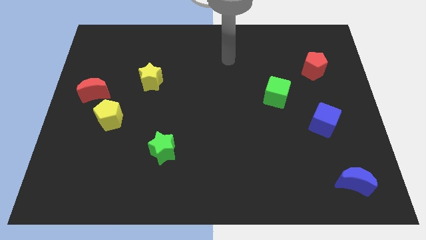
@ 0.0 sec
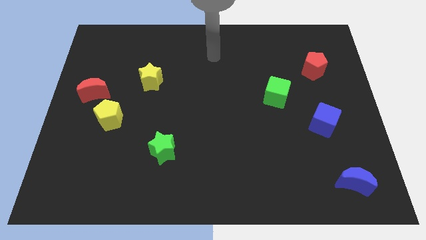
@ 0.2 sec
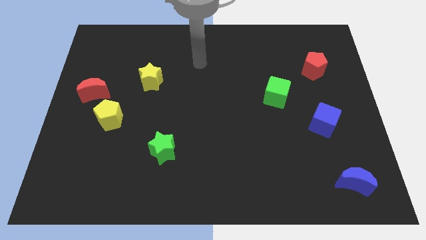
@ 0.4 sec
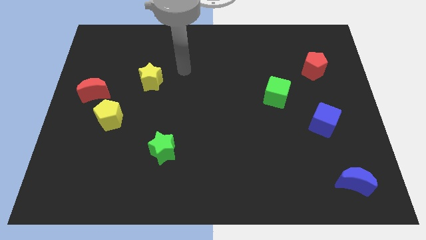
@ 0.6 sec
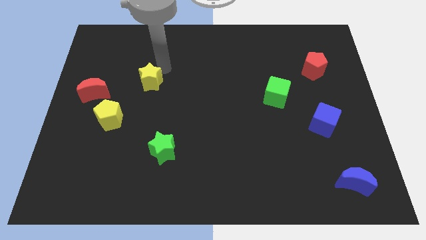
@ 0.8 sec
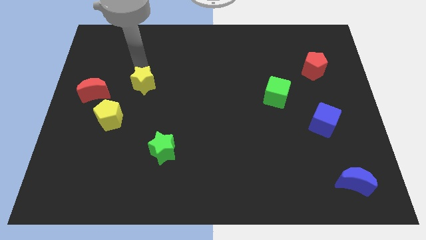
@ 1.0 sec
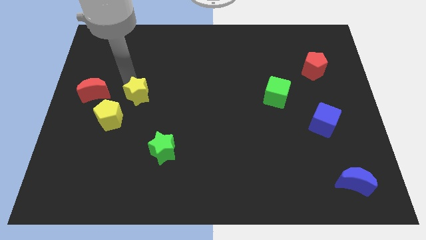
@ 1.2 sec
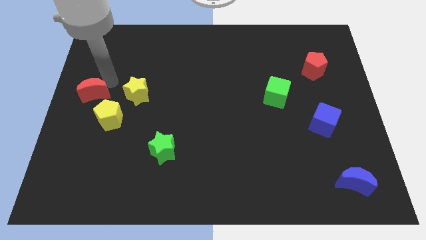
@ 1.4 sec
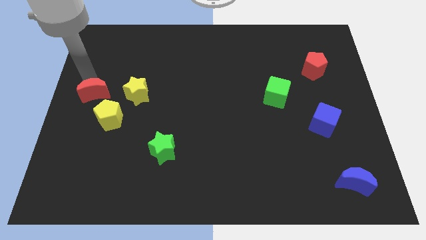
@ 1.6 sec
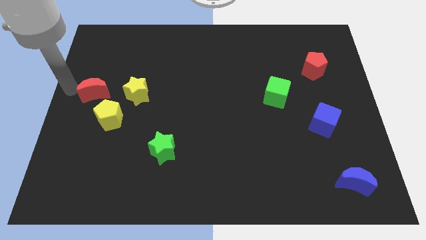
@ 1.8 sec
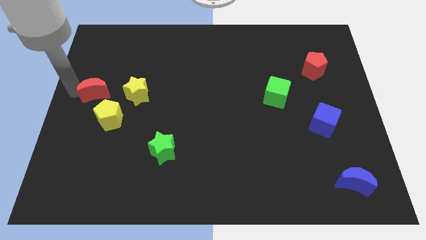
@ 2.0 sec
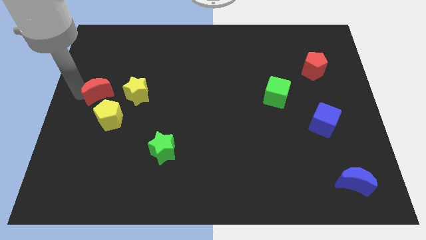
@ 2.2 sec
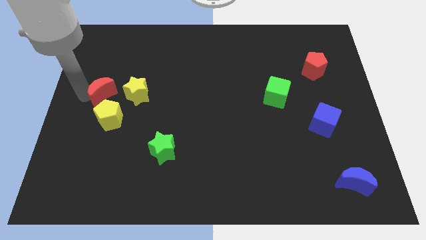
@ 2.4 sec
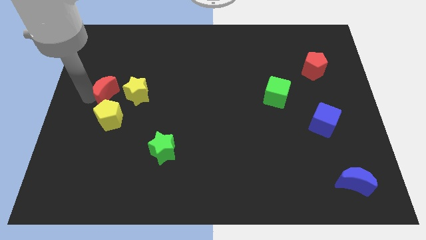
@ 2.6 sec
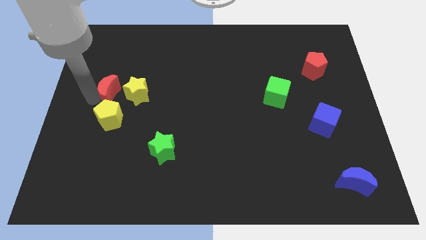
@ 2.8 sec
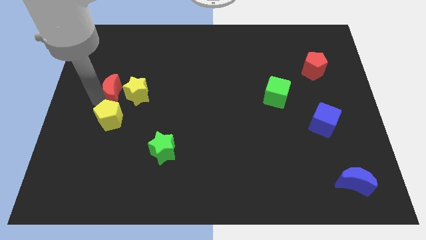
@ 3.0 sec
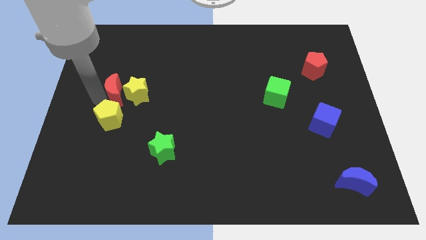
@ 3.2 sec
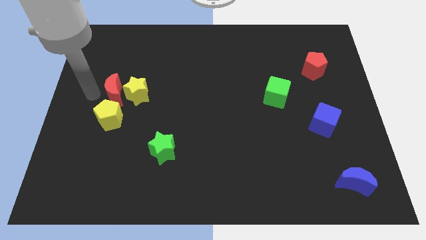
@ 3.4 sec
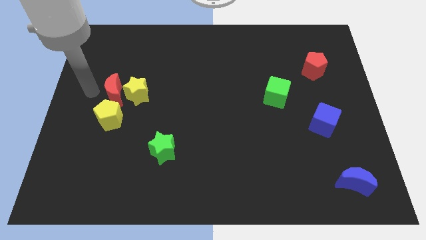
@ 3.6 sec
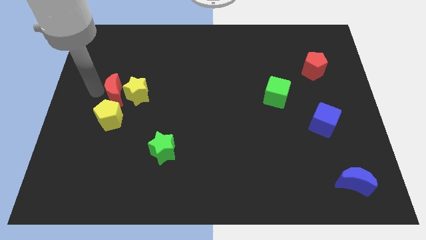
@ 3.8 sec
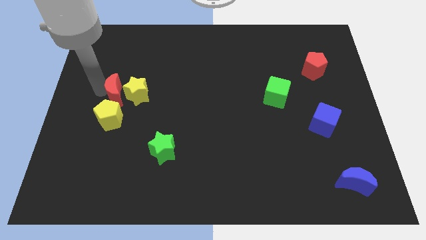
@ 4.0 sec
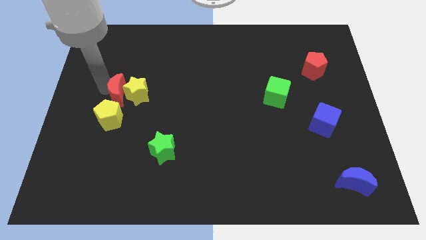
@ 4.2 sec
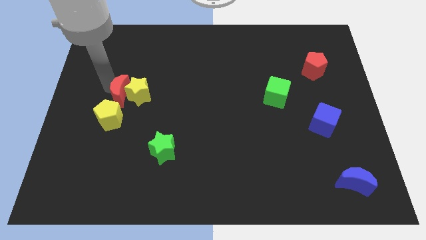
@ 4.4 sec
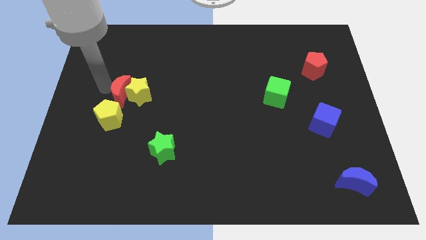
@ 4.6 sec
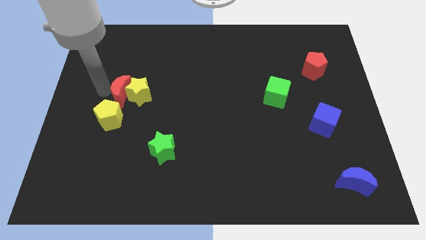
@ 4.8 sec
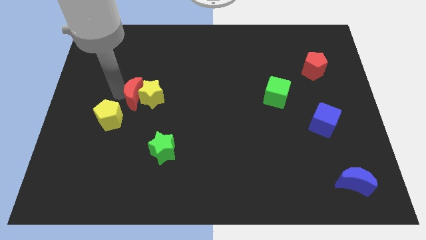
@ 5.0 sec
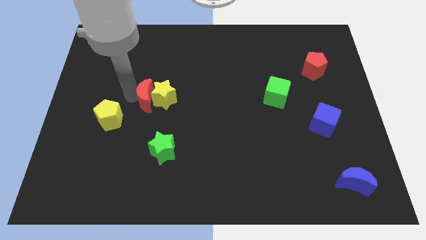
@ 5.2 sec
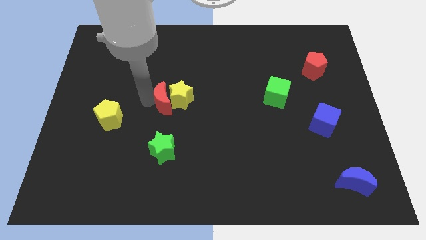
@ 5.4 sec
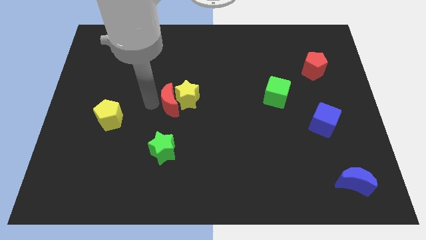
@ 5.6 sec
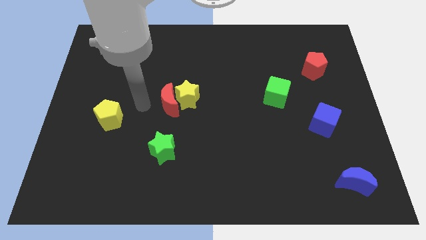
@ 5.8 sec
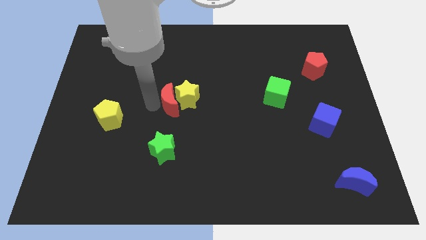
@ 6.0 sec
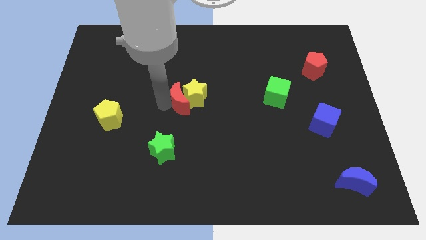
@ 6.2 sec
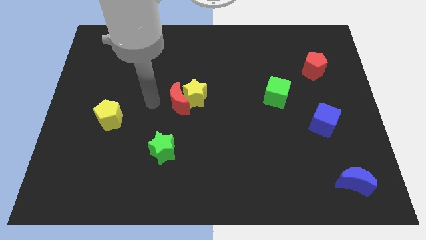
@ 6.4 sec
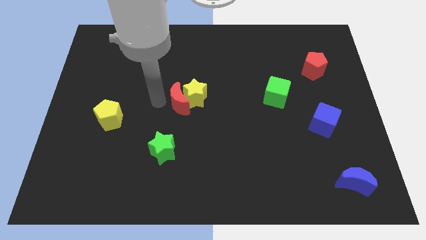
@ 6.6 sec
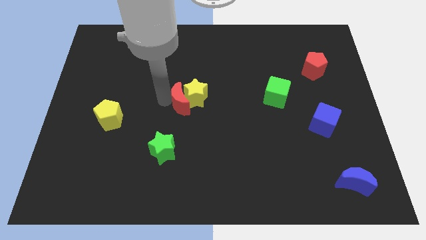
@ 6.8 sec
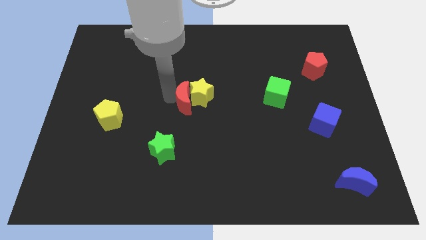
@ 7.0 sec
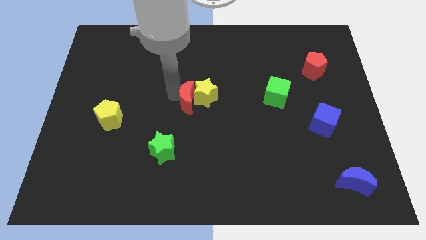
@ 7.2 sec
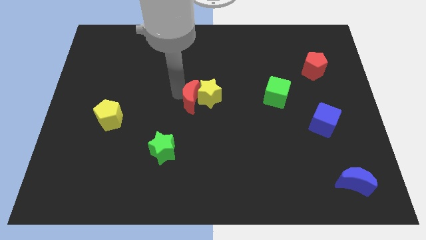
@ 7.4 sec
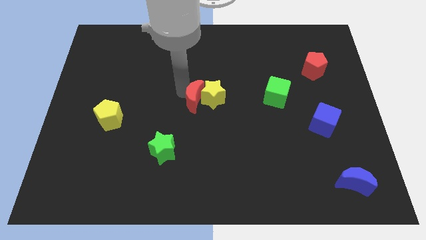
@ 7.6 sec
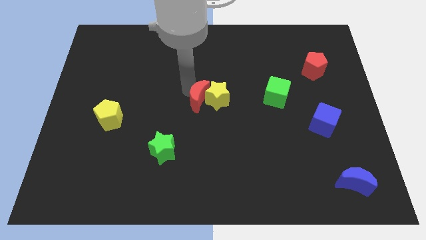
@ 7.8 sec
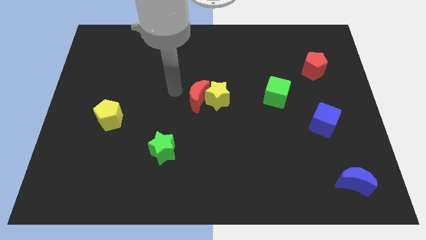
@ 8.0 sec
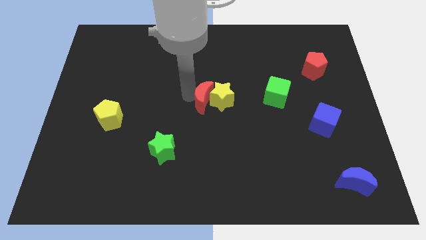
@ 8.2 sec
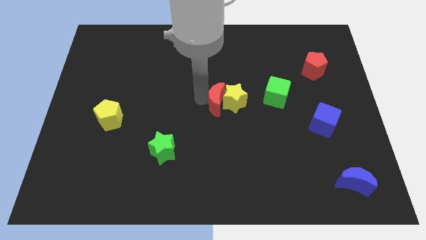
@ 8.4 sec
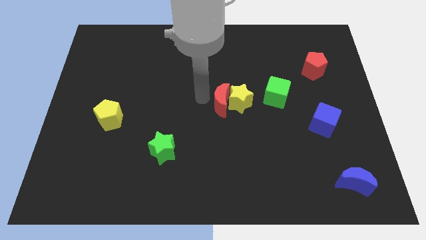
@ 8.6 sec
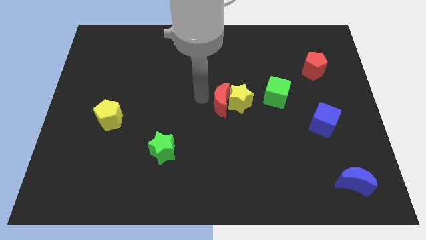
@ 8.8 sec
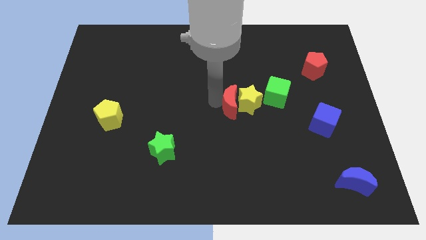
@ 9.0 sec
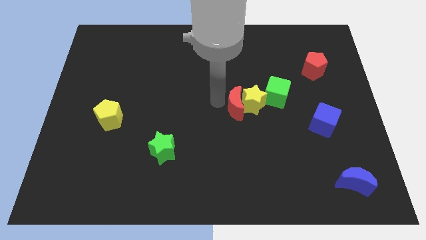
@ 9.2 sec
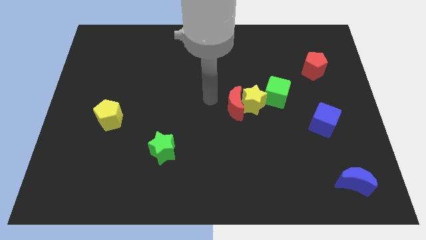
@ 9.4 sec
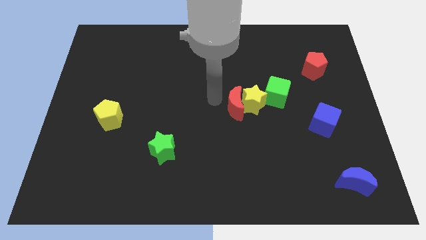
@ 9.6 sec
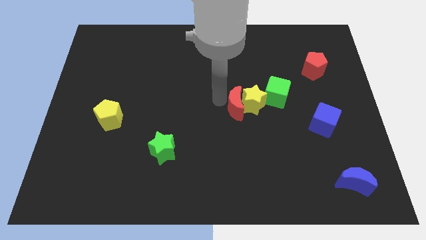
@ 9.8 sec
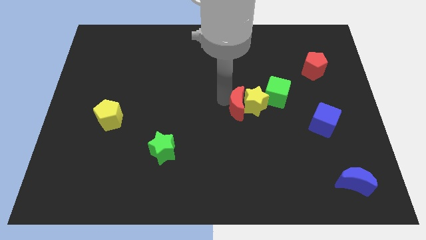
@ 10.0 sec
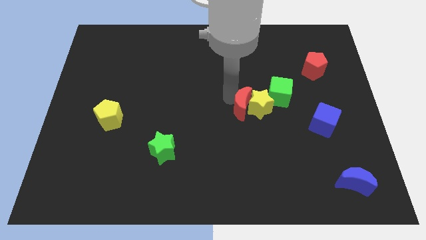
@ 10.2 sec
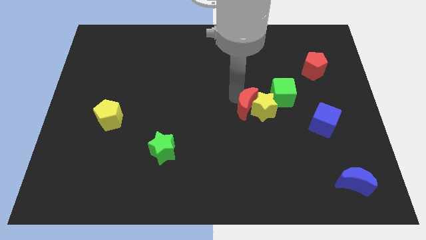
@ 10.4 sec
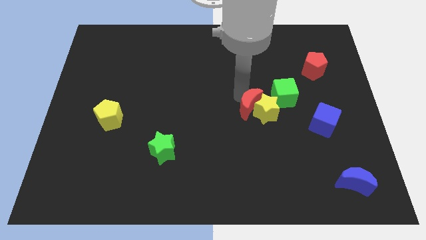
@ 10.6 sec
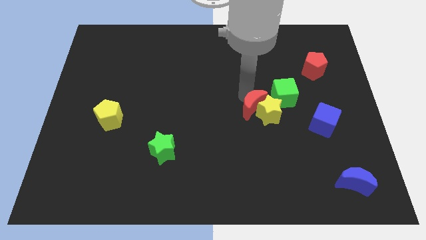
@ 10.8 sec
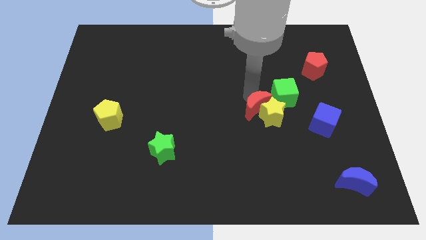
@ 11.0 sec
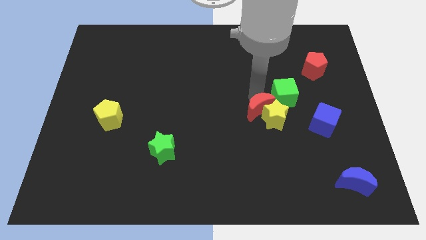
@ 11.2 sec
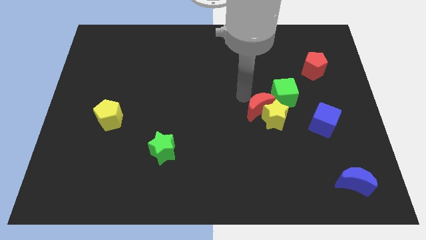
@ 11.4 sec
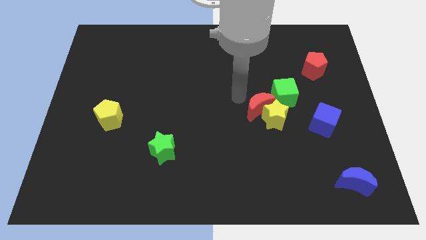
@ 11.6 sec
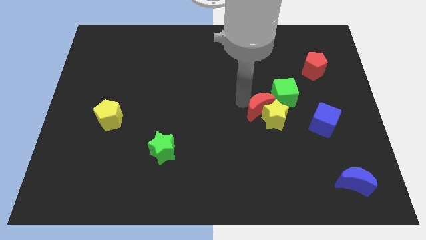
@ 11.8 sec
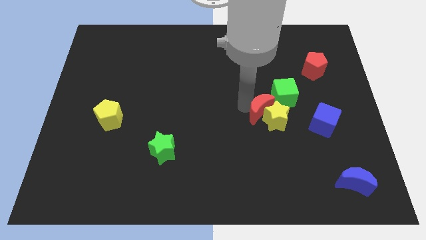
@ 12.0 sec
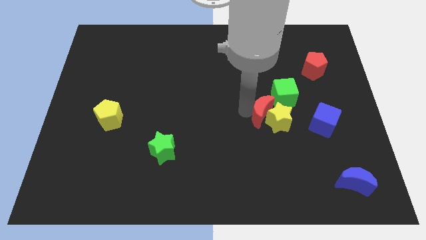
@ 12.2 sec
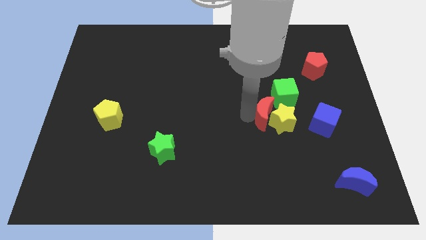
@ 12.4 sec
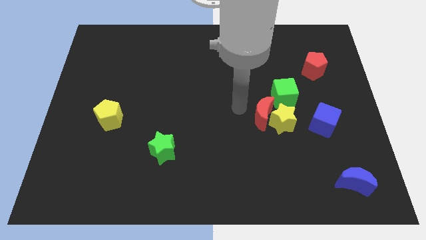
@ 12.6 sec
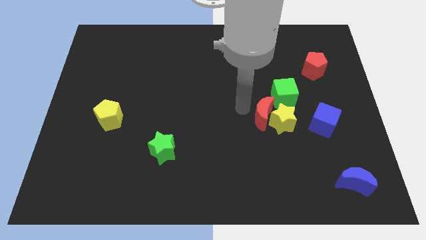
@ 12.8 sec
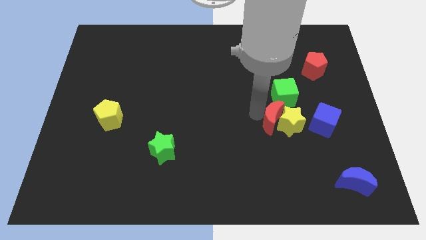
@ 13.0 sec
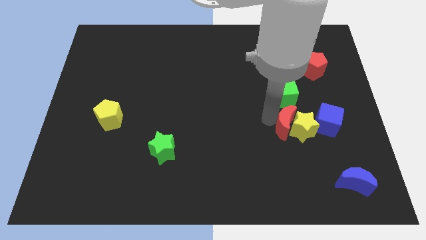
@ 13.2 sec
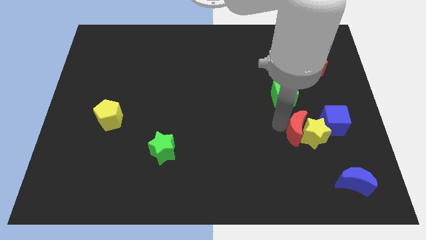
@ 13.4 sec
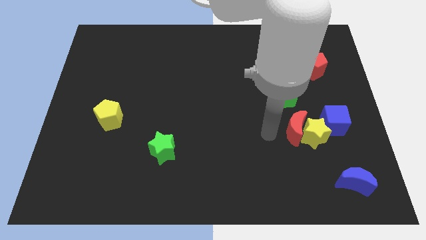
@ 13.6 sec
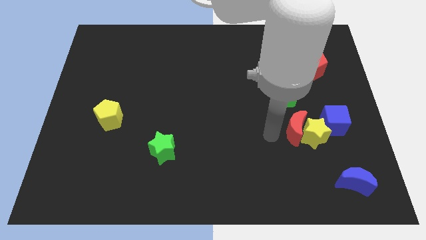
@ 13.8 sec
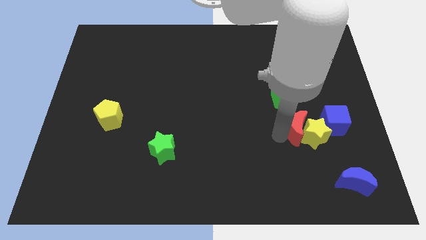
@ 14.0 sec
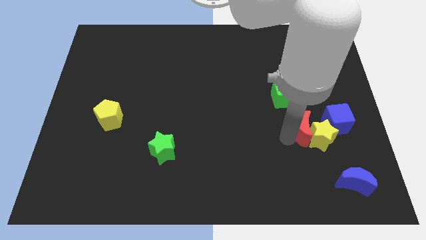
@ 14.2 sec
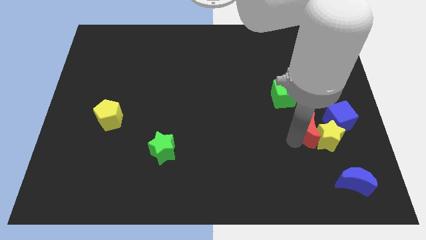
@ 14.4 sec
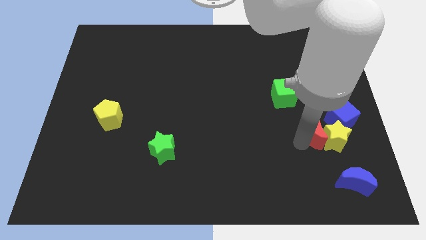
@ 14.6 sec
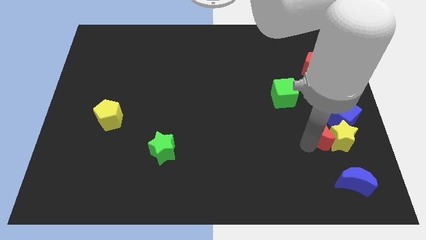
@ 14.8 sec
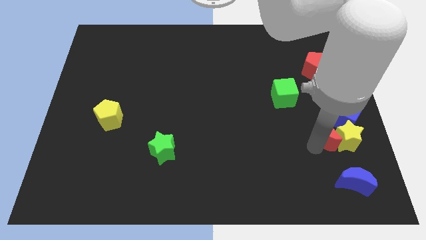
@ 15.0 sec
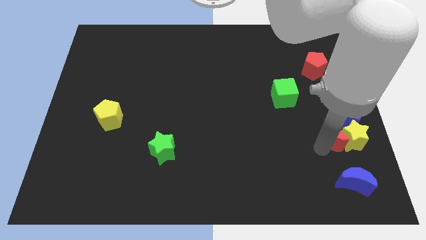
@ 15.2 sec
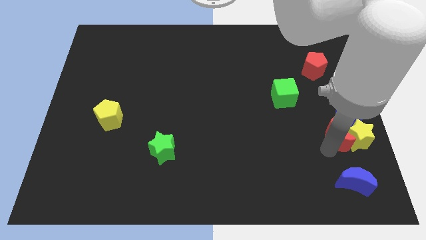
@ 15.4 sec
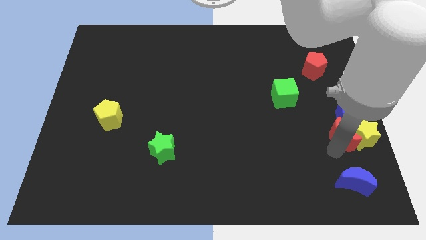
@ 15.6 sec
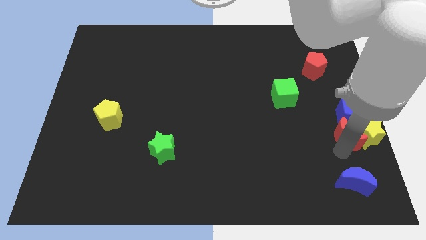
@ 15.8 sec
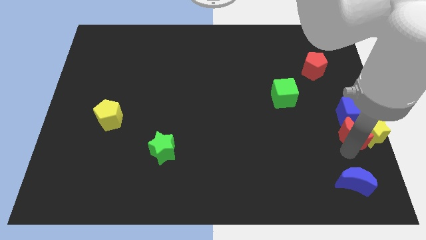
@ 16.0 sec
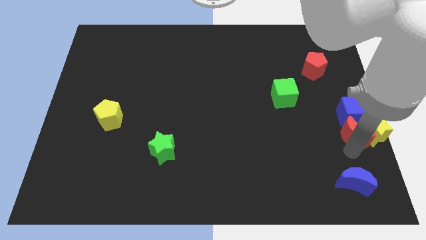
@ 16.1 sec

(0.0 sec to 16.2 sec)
slide the red moon close to the blue cube

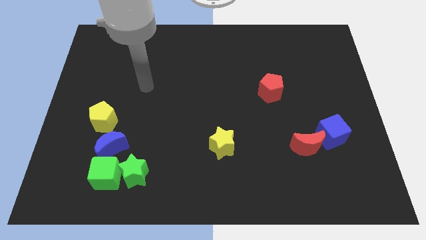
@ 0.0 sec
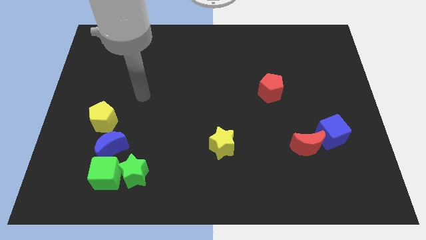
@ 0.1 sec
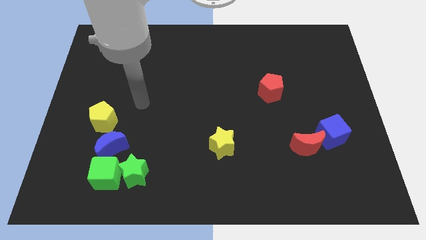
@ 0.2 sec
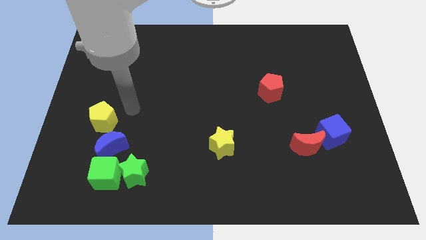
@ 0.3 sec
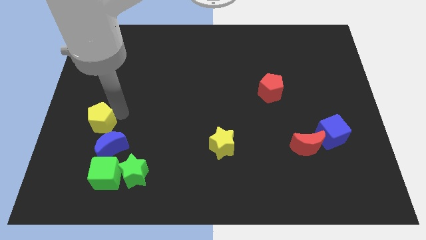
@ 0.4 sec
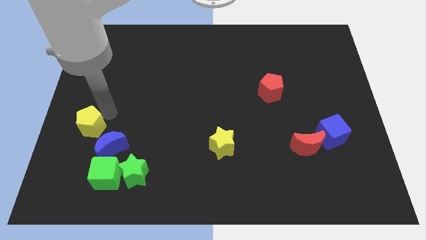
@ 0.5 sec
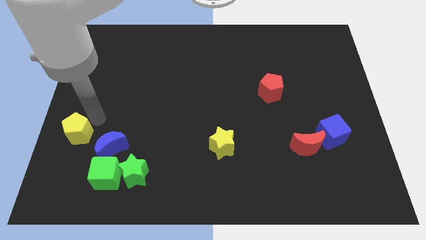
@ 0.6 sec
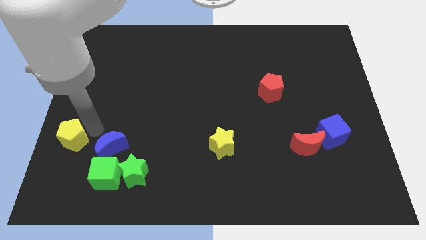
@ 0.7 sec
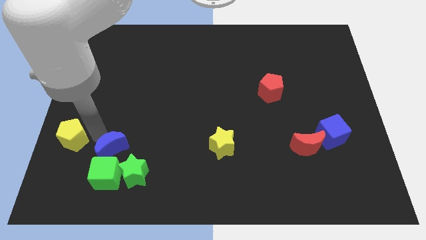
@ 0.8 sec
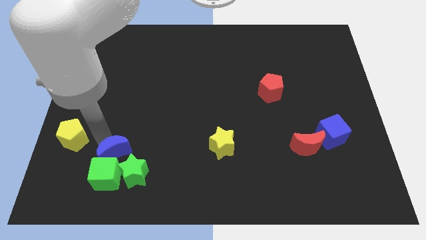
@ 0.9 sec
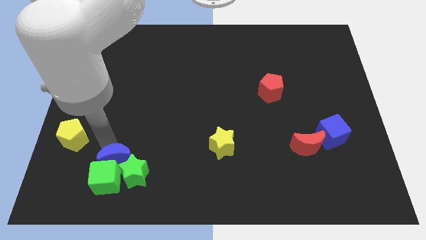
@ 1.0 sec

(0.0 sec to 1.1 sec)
put the blue moon to the green star
